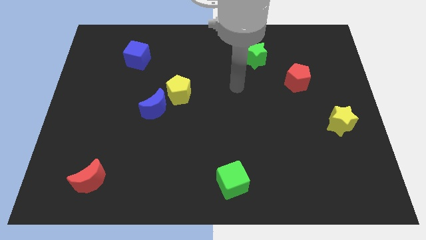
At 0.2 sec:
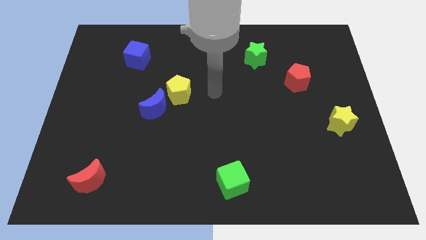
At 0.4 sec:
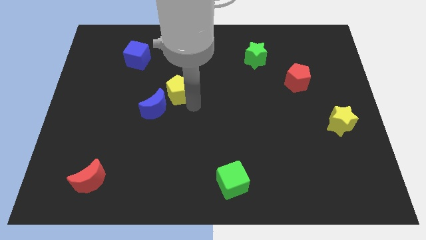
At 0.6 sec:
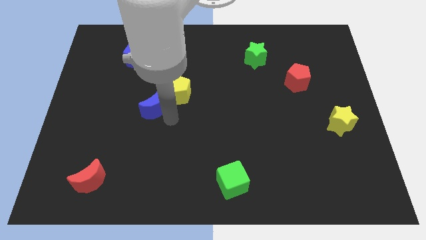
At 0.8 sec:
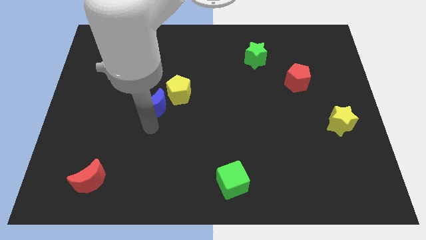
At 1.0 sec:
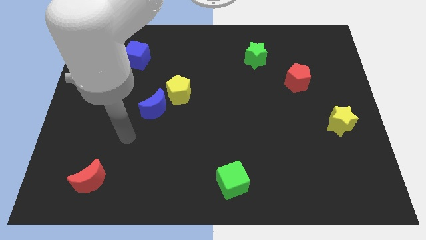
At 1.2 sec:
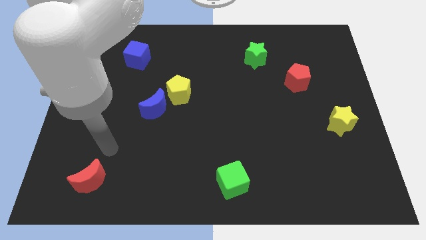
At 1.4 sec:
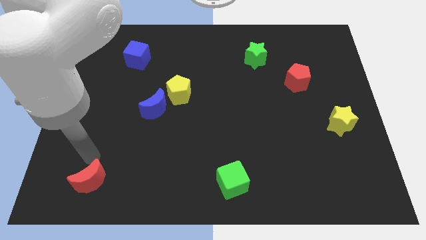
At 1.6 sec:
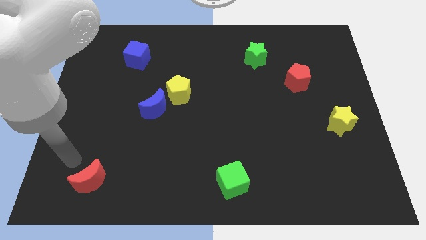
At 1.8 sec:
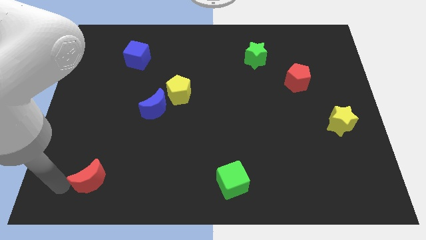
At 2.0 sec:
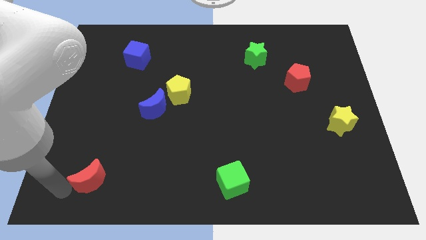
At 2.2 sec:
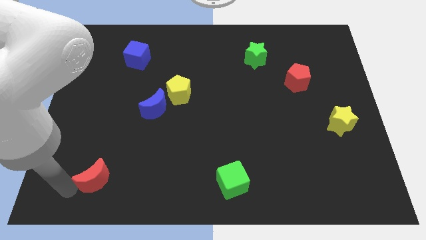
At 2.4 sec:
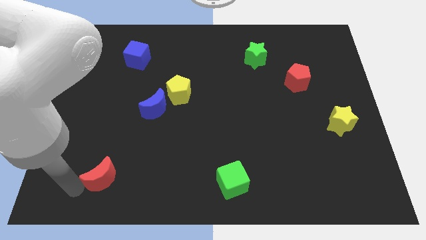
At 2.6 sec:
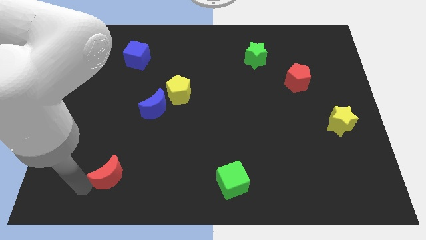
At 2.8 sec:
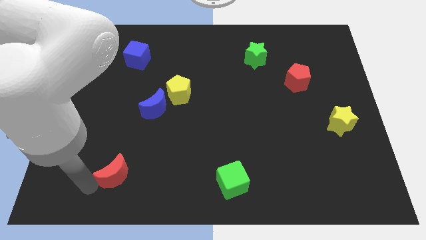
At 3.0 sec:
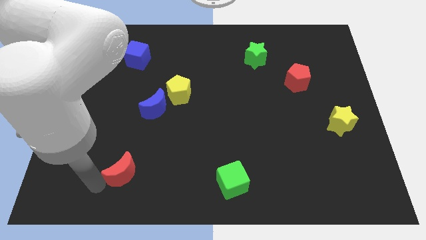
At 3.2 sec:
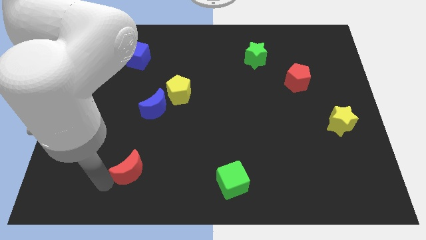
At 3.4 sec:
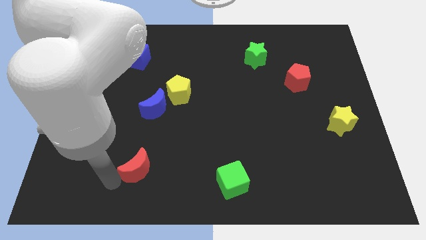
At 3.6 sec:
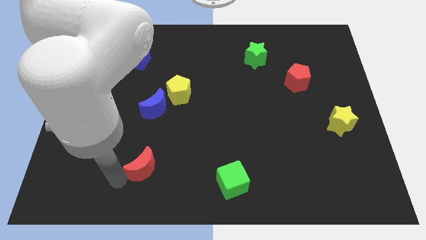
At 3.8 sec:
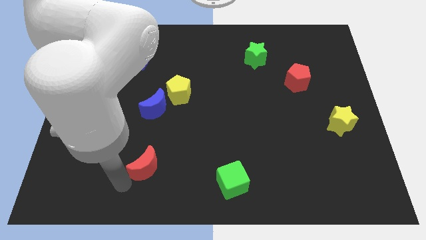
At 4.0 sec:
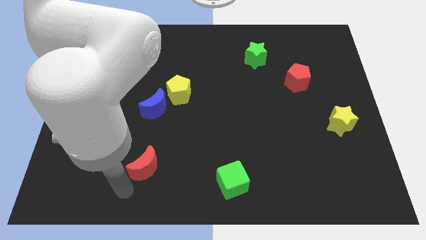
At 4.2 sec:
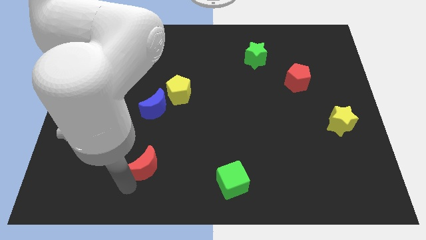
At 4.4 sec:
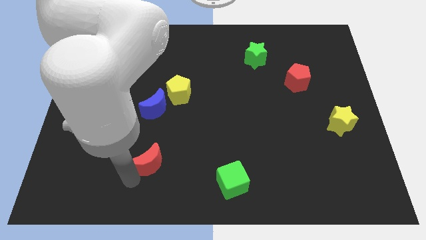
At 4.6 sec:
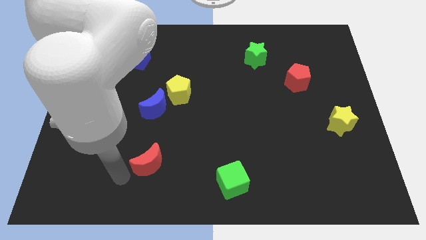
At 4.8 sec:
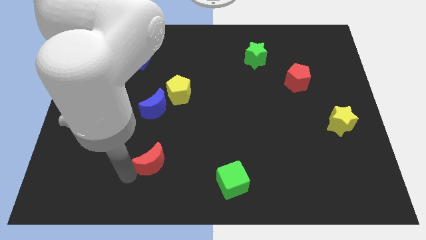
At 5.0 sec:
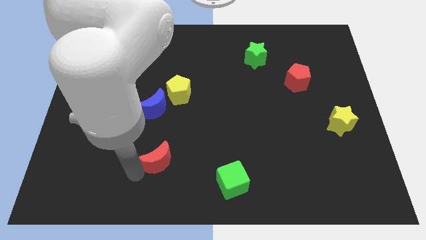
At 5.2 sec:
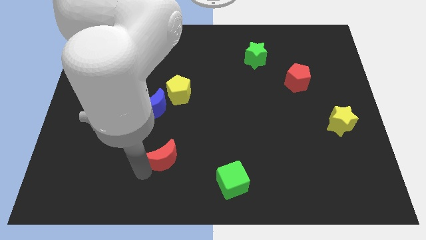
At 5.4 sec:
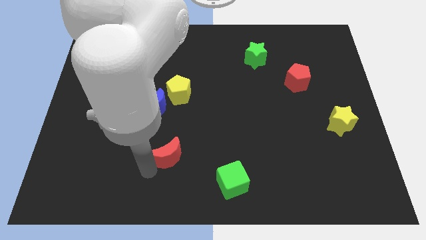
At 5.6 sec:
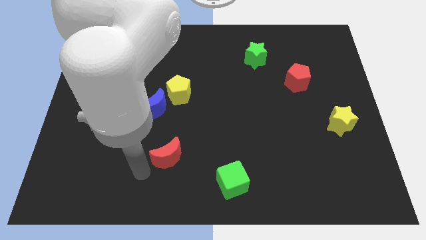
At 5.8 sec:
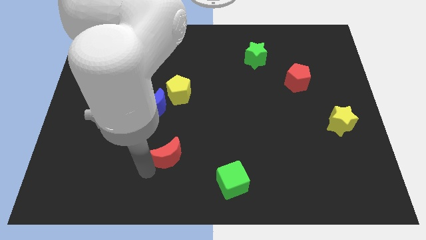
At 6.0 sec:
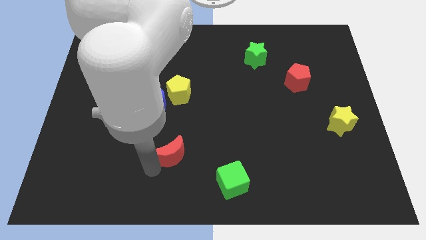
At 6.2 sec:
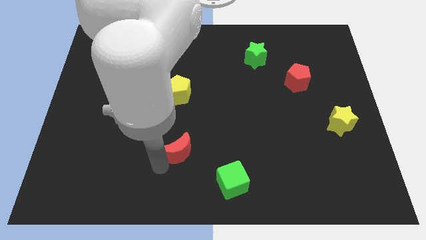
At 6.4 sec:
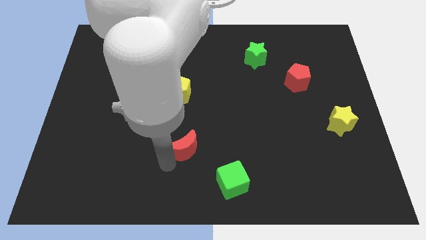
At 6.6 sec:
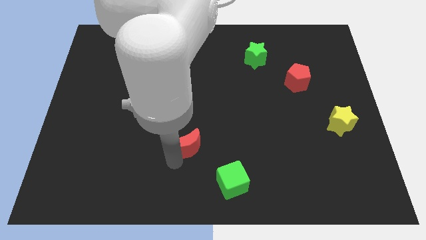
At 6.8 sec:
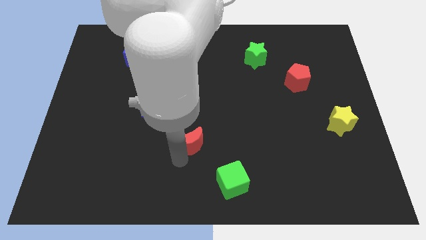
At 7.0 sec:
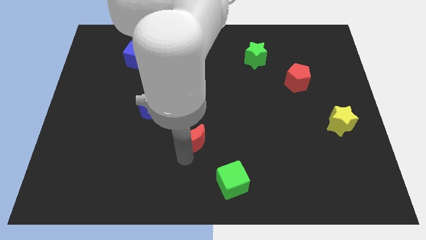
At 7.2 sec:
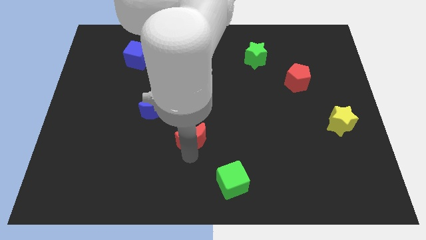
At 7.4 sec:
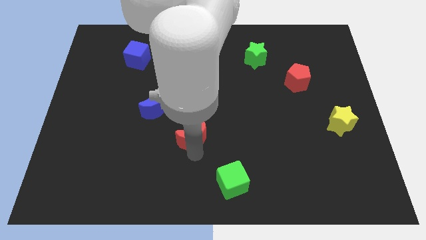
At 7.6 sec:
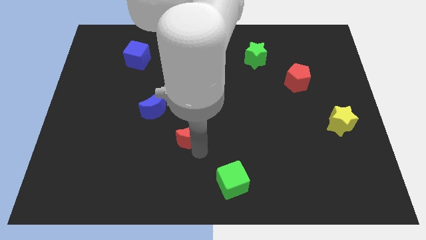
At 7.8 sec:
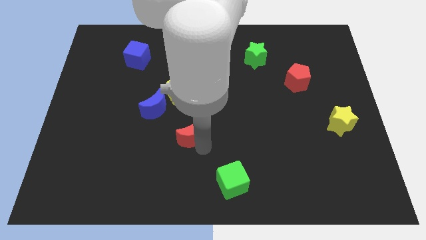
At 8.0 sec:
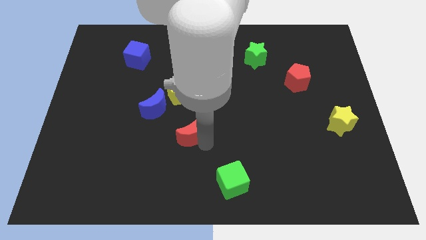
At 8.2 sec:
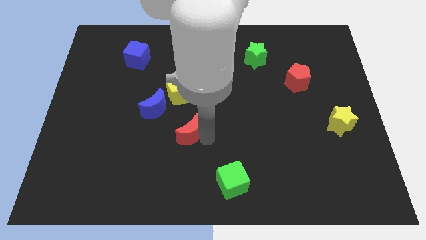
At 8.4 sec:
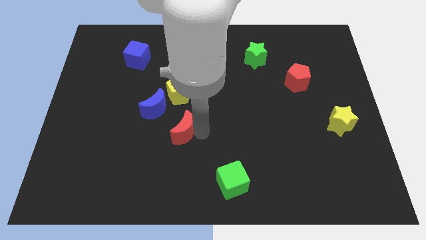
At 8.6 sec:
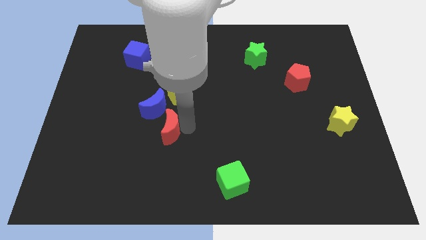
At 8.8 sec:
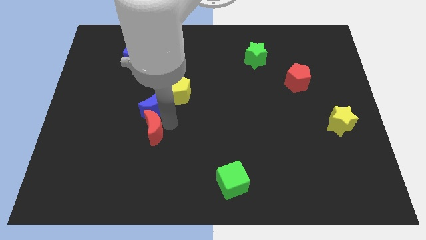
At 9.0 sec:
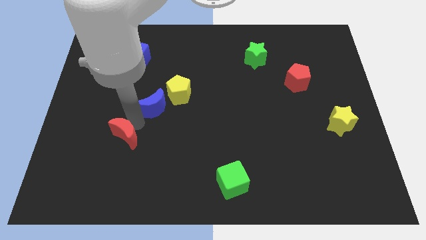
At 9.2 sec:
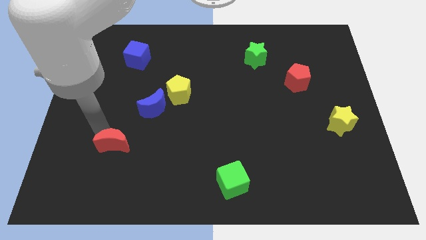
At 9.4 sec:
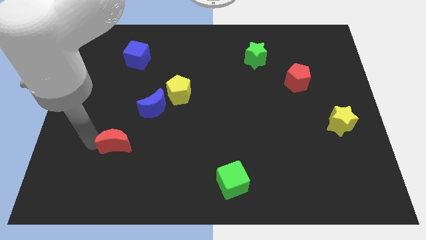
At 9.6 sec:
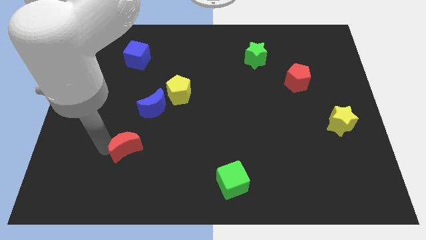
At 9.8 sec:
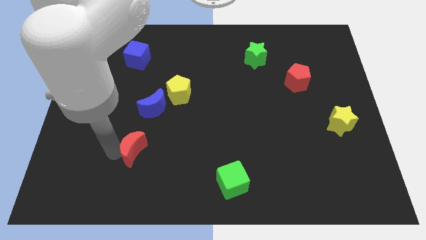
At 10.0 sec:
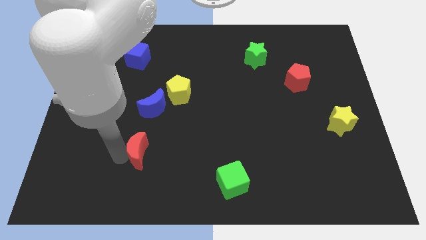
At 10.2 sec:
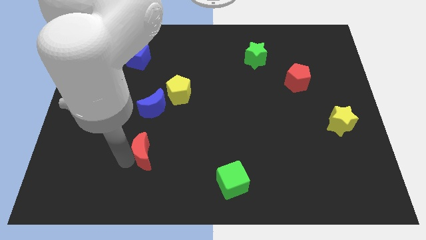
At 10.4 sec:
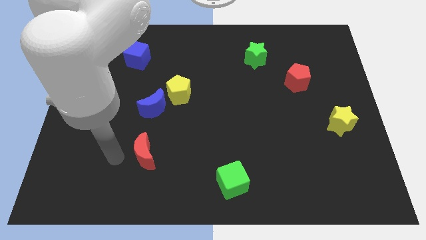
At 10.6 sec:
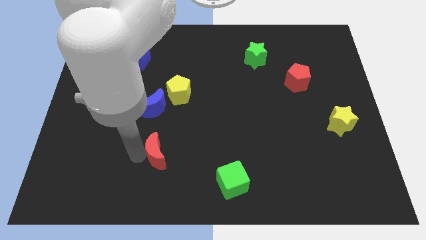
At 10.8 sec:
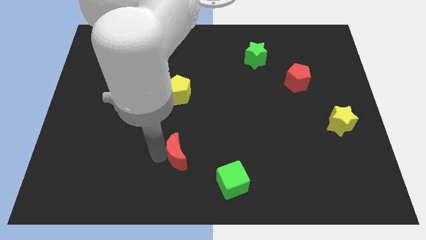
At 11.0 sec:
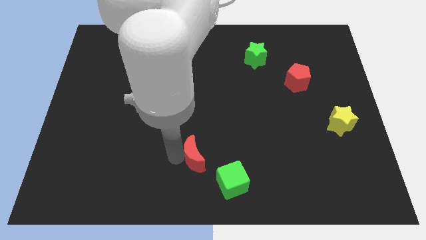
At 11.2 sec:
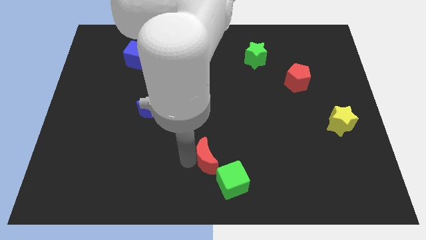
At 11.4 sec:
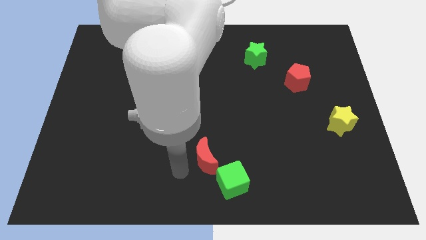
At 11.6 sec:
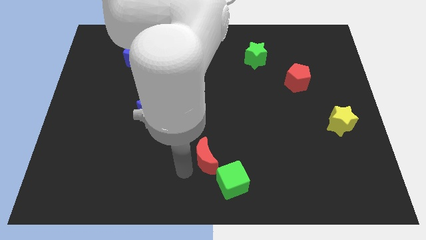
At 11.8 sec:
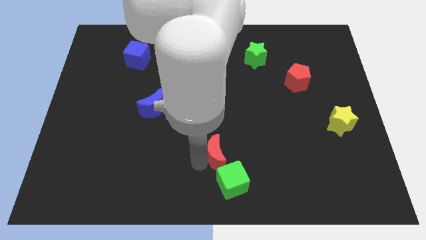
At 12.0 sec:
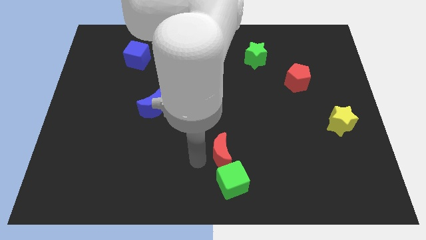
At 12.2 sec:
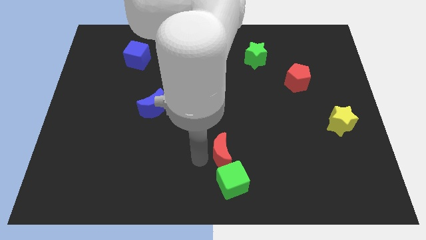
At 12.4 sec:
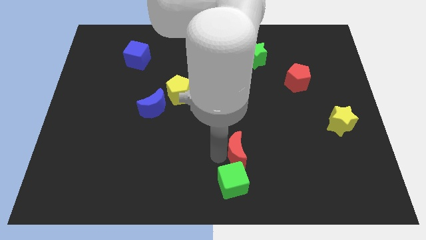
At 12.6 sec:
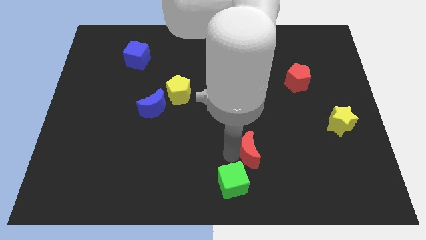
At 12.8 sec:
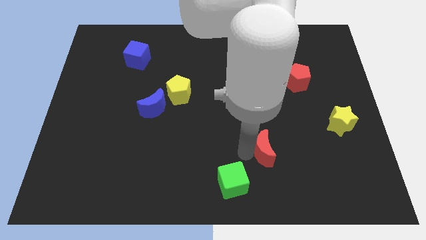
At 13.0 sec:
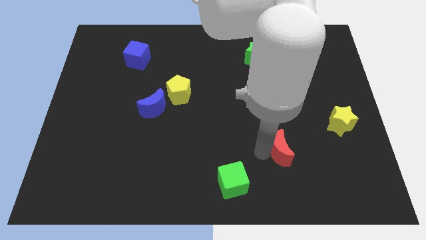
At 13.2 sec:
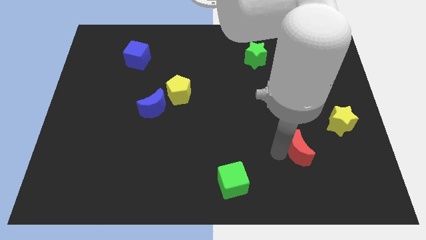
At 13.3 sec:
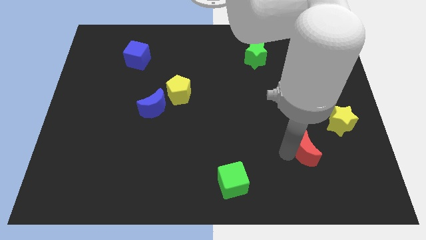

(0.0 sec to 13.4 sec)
slide the red moon to the bottom left side of the yellow star

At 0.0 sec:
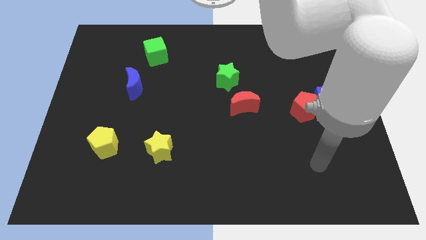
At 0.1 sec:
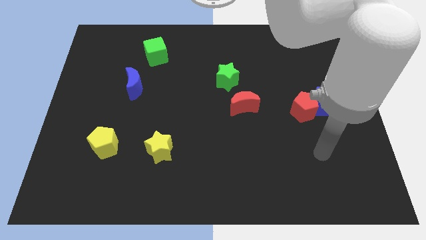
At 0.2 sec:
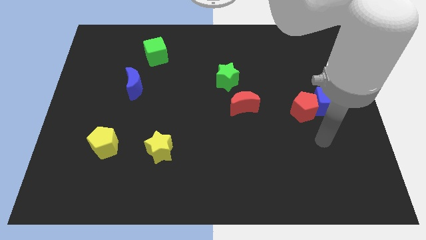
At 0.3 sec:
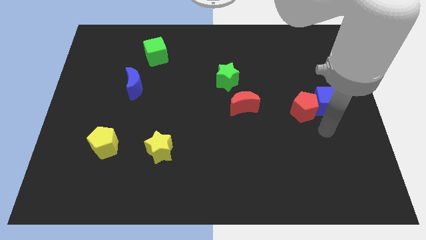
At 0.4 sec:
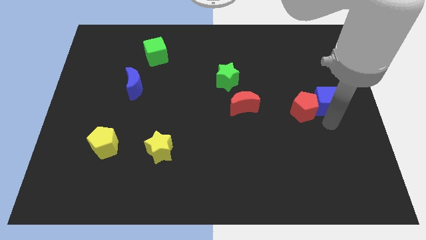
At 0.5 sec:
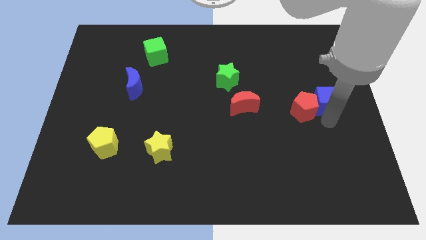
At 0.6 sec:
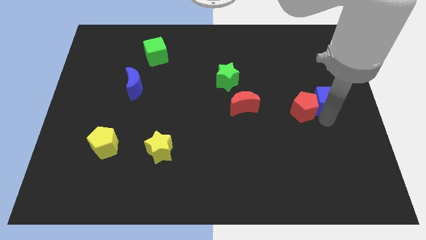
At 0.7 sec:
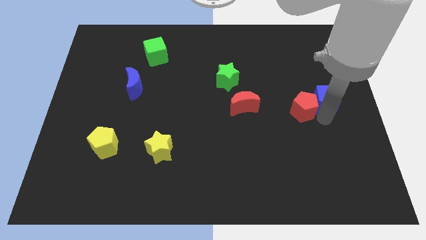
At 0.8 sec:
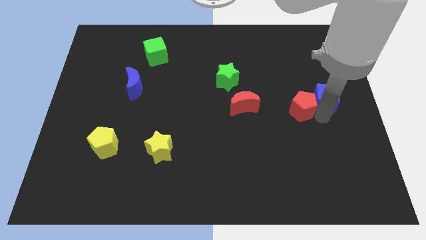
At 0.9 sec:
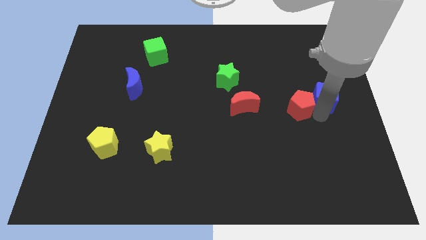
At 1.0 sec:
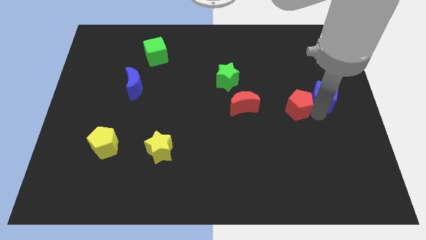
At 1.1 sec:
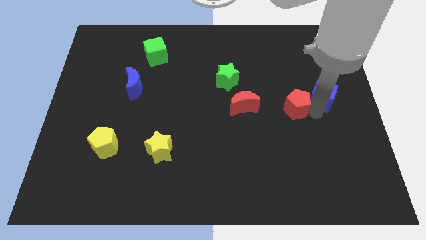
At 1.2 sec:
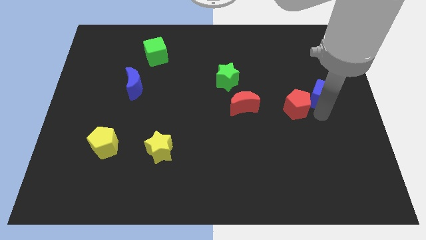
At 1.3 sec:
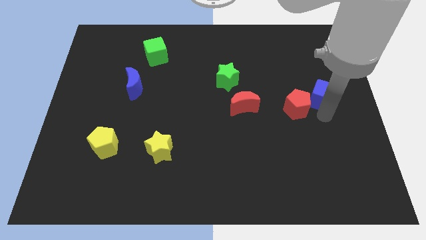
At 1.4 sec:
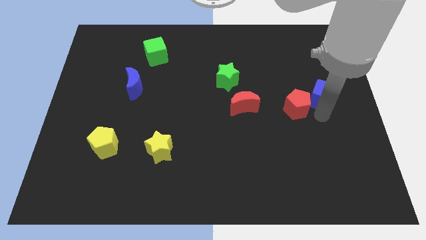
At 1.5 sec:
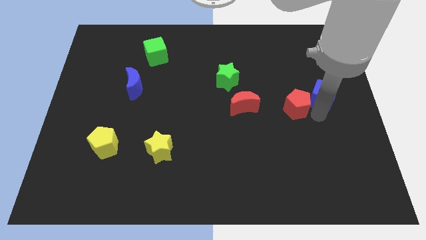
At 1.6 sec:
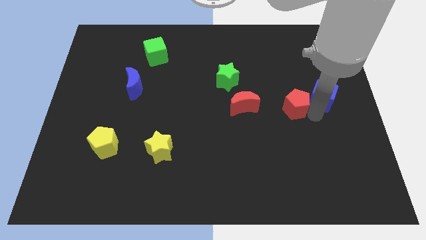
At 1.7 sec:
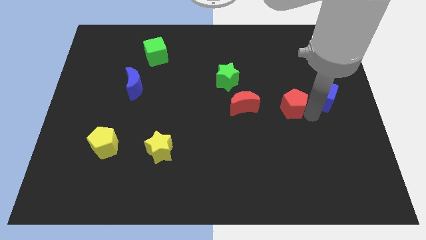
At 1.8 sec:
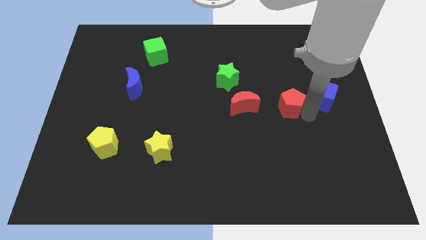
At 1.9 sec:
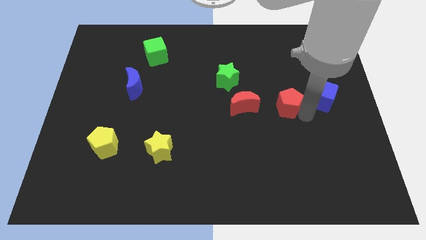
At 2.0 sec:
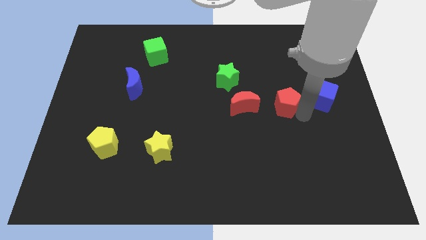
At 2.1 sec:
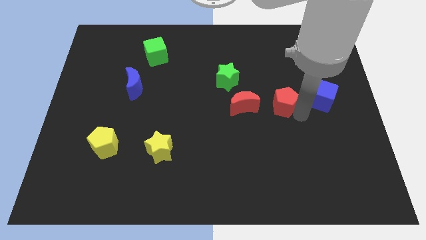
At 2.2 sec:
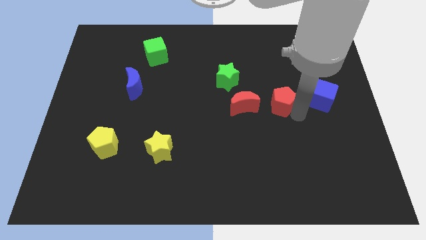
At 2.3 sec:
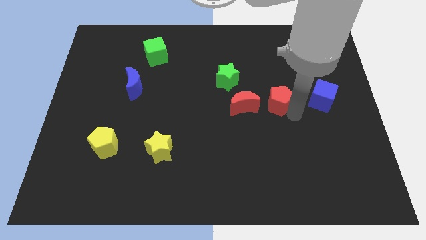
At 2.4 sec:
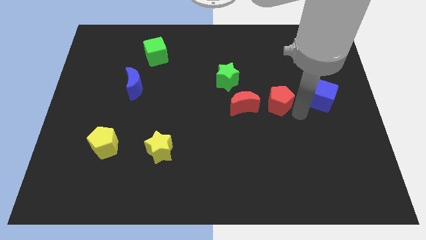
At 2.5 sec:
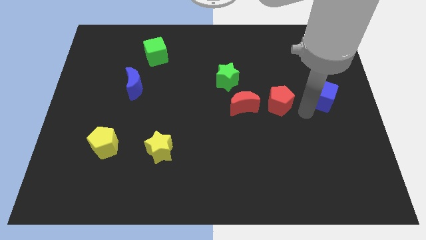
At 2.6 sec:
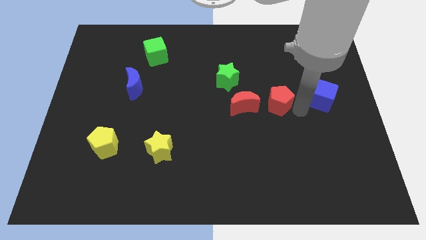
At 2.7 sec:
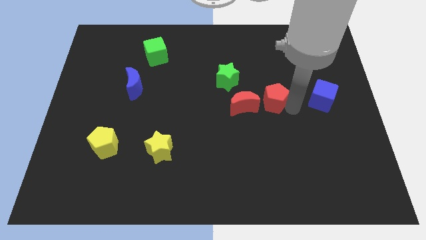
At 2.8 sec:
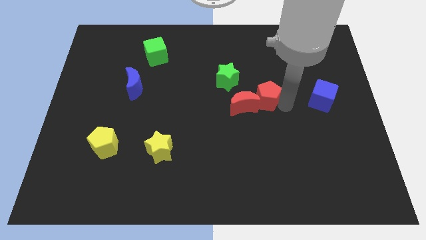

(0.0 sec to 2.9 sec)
move the red pentagon to the bottom right side of the green star
